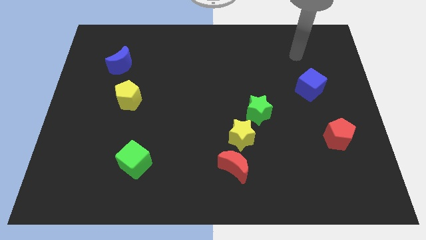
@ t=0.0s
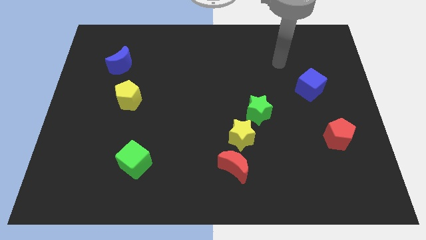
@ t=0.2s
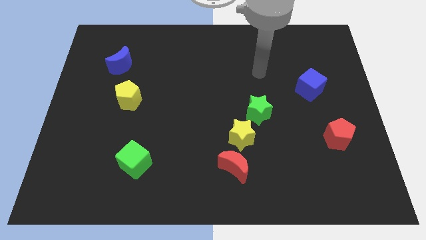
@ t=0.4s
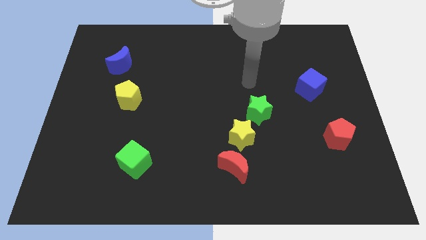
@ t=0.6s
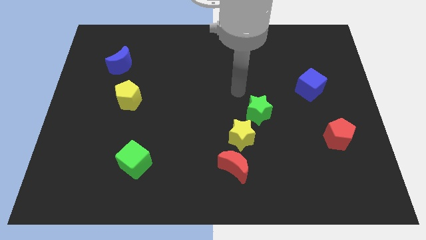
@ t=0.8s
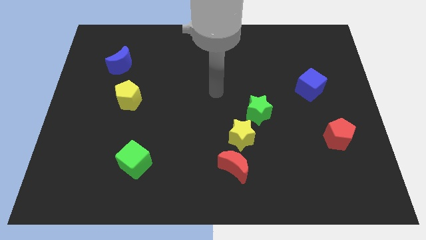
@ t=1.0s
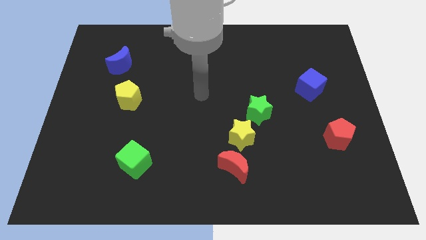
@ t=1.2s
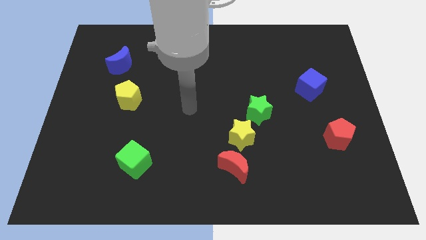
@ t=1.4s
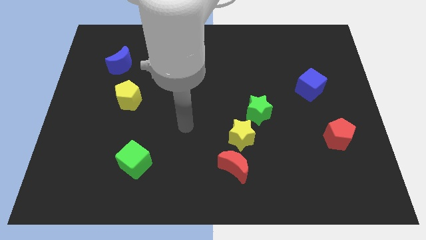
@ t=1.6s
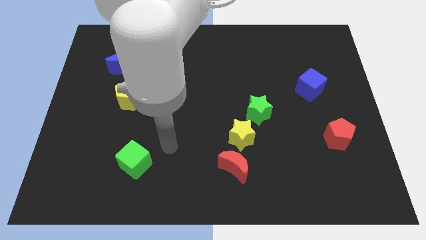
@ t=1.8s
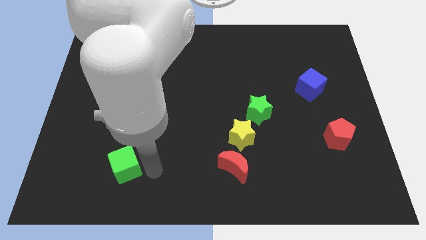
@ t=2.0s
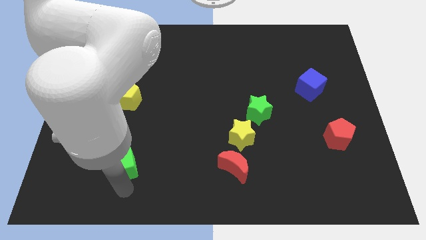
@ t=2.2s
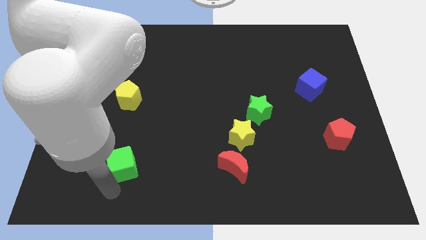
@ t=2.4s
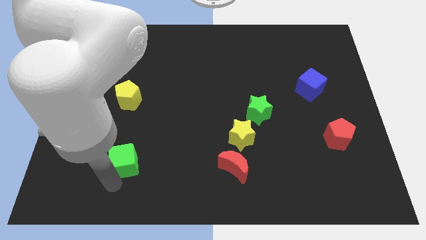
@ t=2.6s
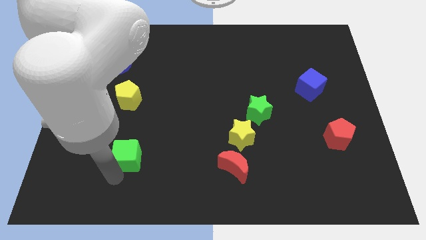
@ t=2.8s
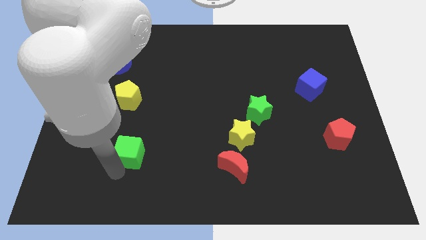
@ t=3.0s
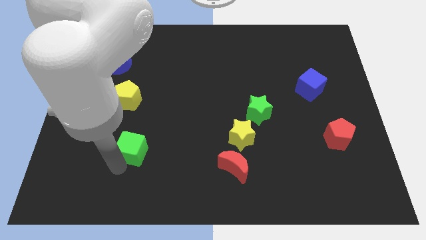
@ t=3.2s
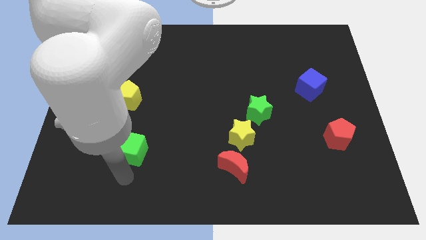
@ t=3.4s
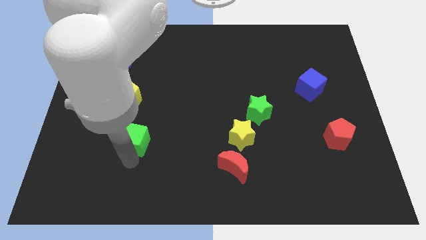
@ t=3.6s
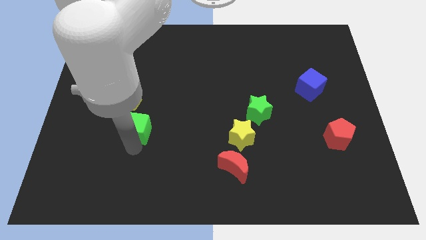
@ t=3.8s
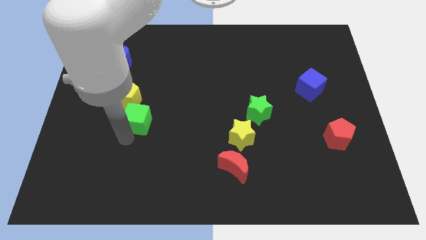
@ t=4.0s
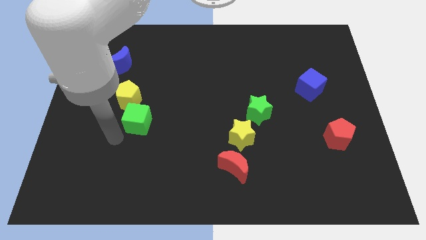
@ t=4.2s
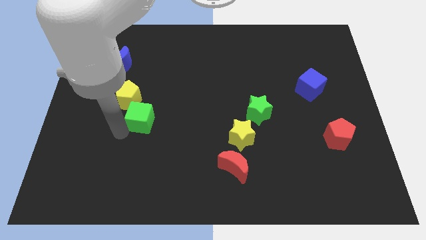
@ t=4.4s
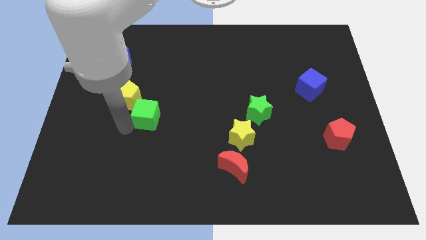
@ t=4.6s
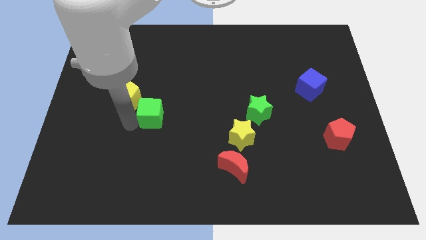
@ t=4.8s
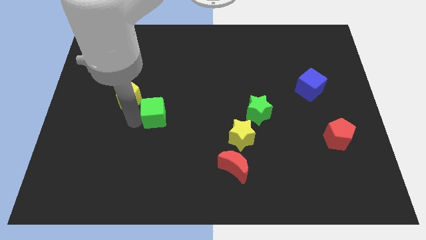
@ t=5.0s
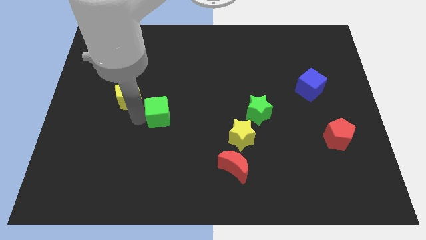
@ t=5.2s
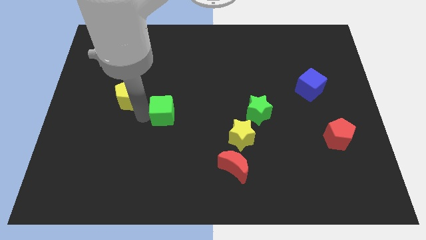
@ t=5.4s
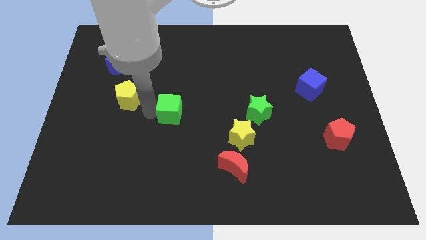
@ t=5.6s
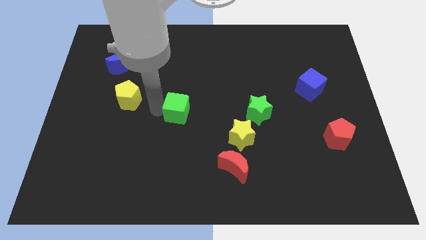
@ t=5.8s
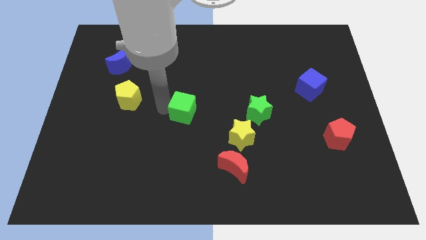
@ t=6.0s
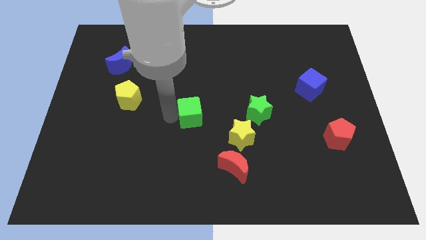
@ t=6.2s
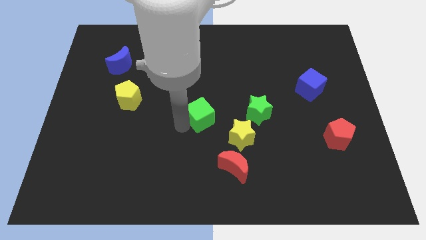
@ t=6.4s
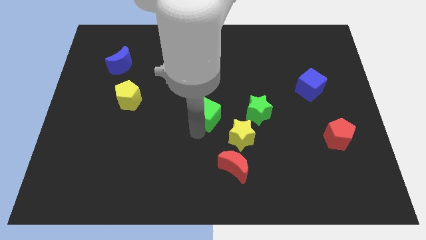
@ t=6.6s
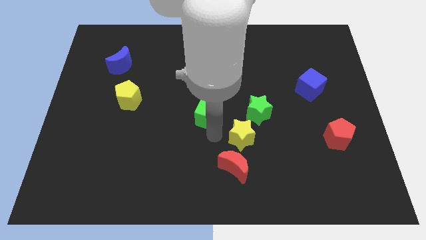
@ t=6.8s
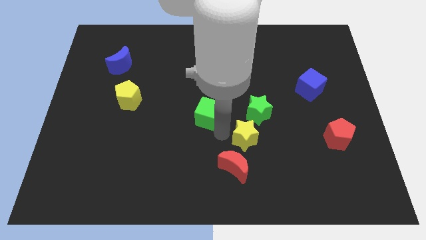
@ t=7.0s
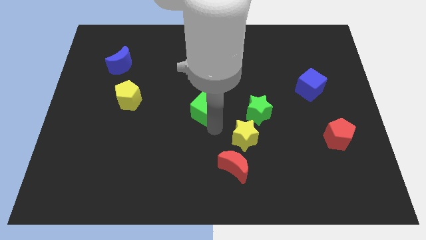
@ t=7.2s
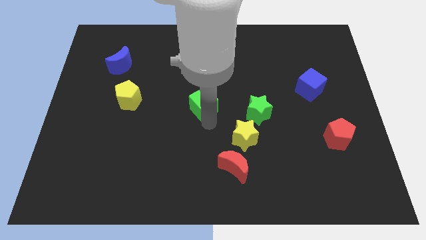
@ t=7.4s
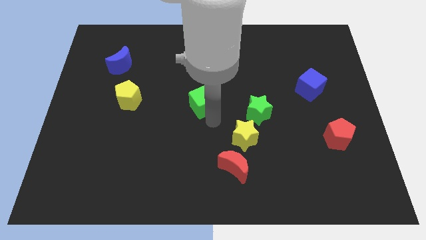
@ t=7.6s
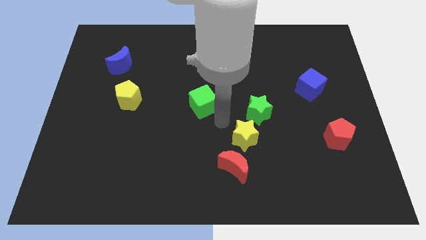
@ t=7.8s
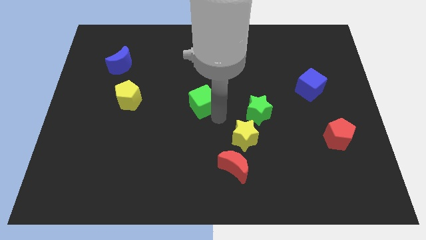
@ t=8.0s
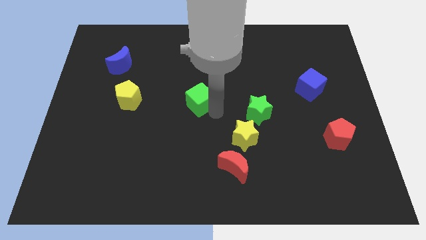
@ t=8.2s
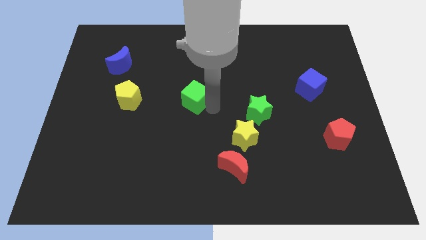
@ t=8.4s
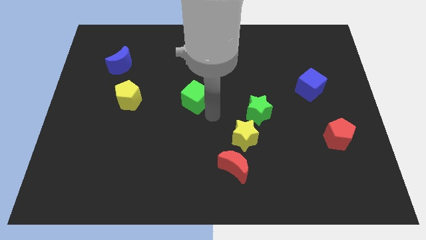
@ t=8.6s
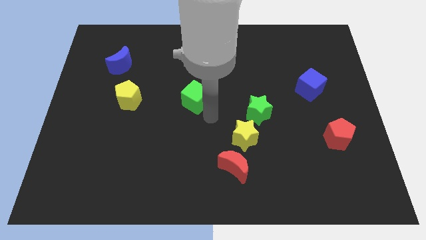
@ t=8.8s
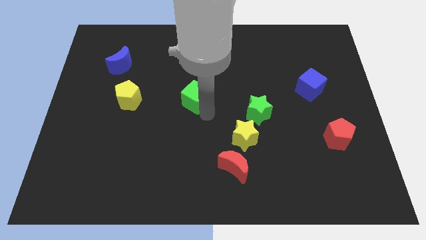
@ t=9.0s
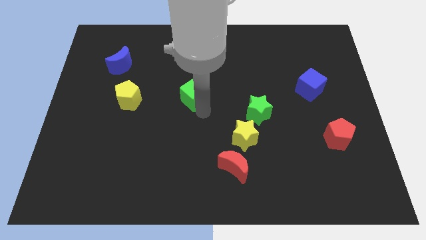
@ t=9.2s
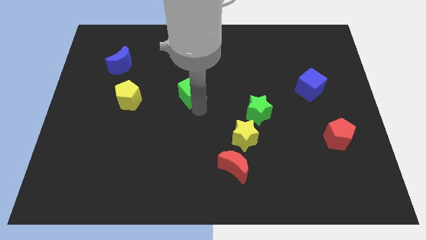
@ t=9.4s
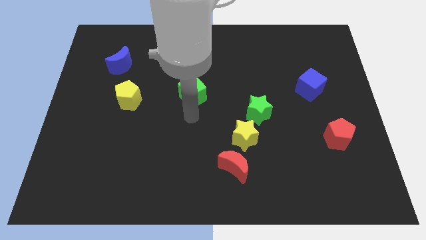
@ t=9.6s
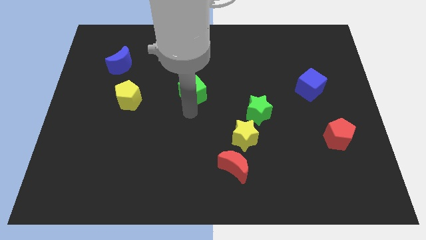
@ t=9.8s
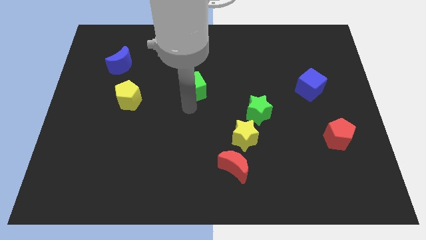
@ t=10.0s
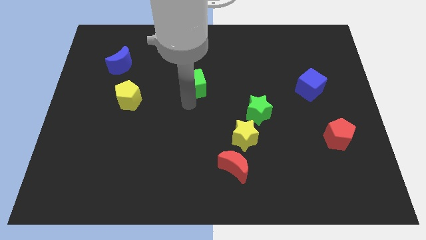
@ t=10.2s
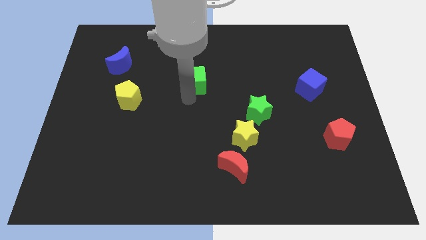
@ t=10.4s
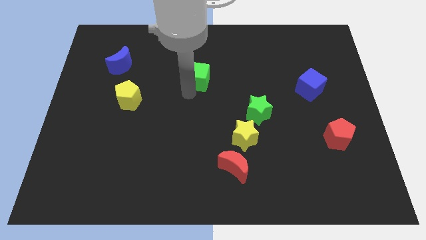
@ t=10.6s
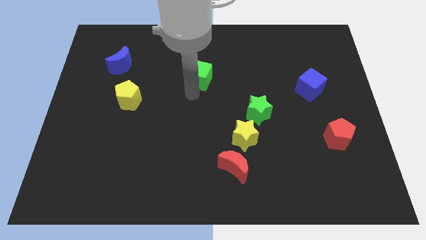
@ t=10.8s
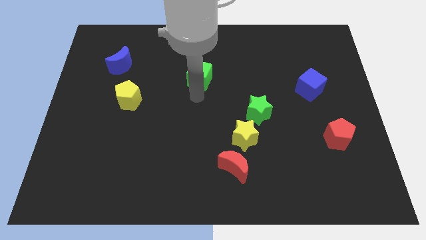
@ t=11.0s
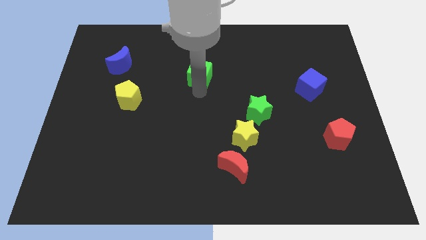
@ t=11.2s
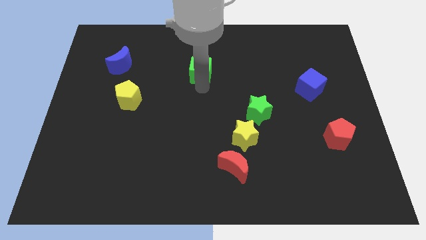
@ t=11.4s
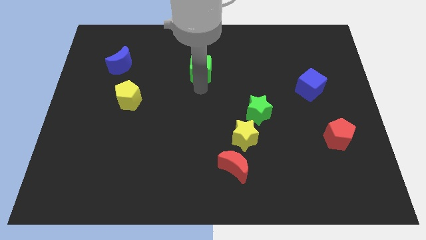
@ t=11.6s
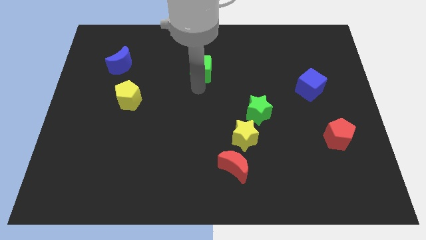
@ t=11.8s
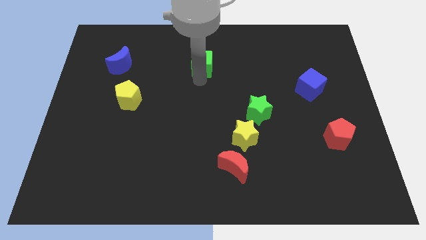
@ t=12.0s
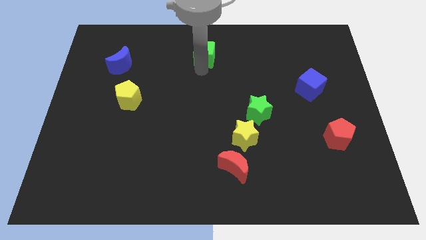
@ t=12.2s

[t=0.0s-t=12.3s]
push the green cube to the top
